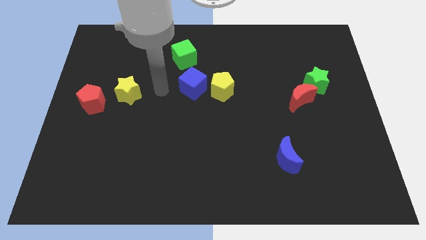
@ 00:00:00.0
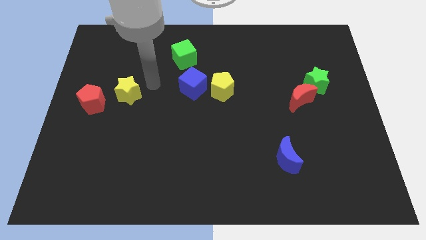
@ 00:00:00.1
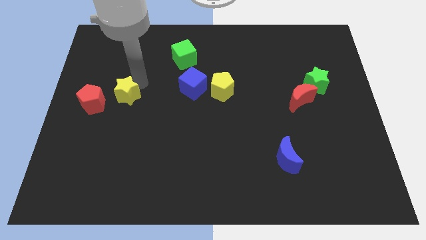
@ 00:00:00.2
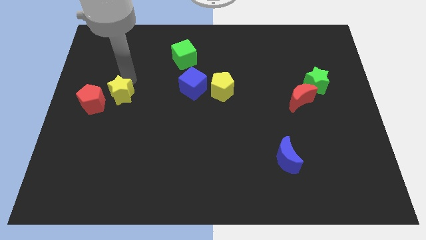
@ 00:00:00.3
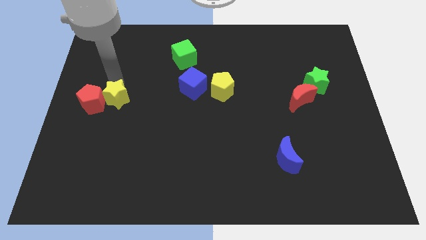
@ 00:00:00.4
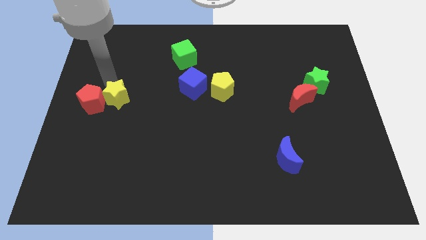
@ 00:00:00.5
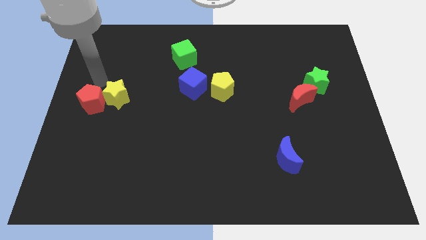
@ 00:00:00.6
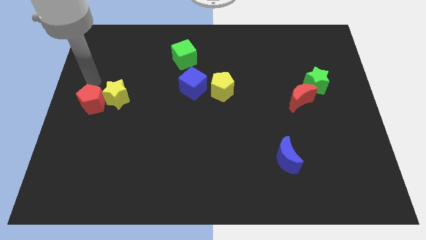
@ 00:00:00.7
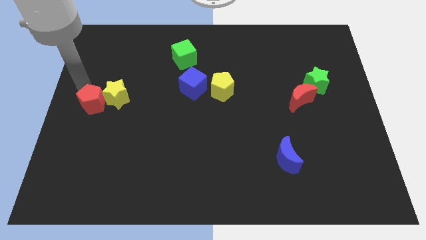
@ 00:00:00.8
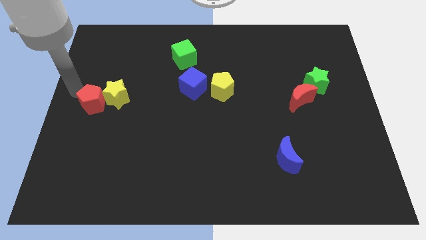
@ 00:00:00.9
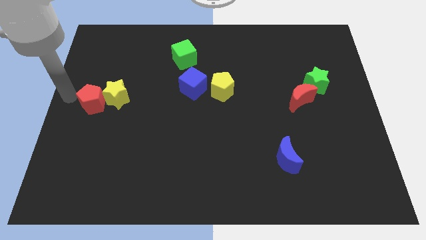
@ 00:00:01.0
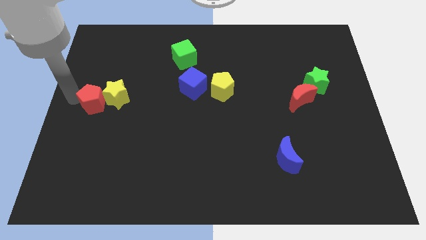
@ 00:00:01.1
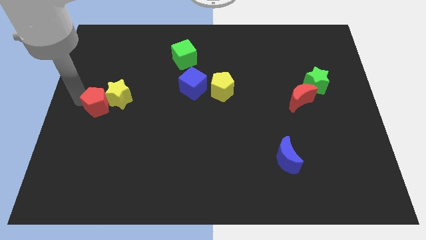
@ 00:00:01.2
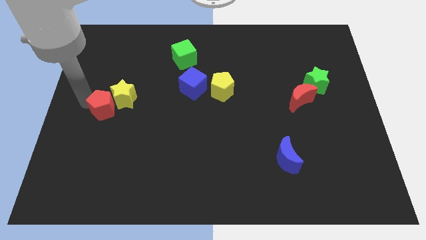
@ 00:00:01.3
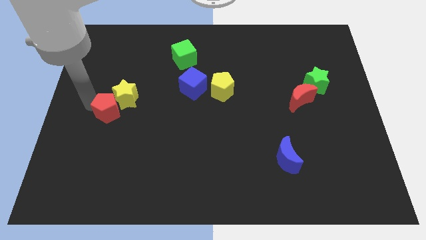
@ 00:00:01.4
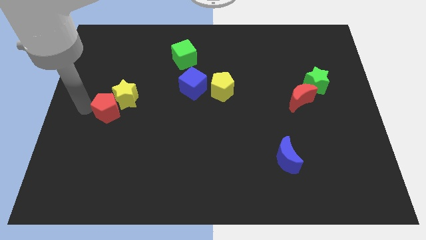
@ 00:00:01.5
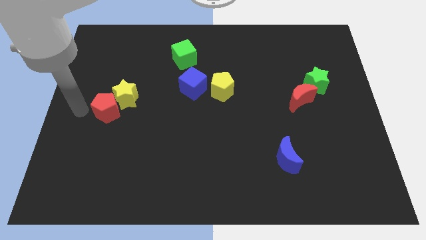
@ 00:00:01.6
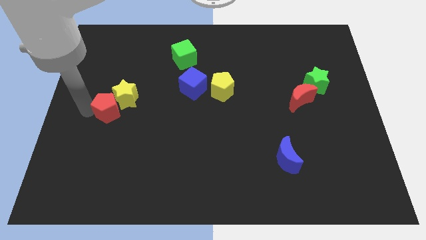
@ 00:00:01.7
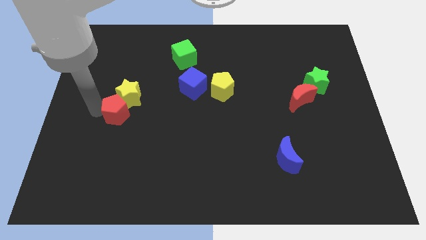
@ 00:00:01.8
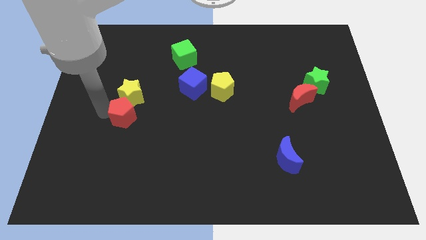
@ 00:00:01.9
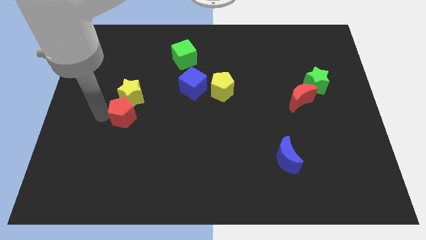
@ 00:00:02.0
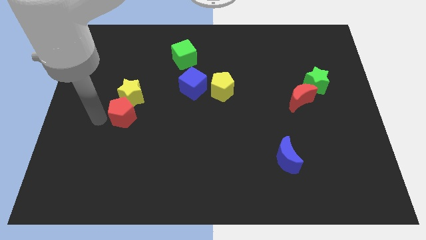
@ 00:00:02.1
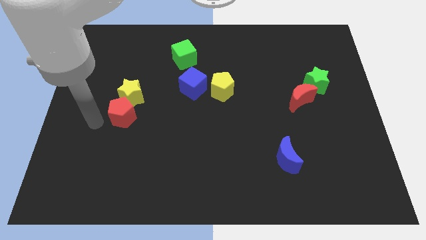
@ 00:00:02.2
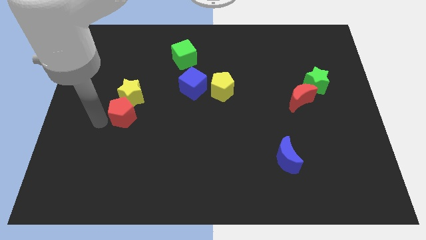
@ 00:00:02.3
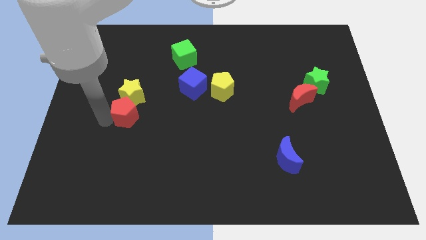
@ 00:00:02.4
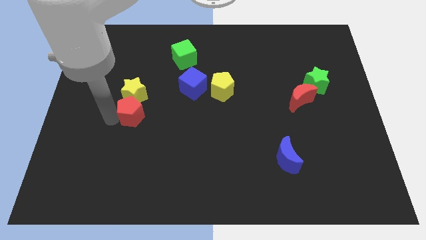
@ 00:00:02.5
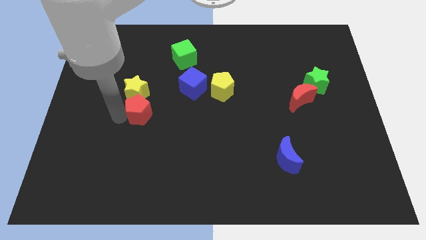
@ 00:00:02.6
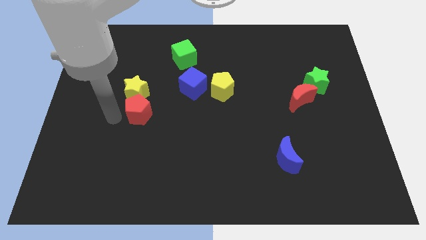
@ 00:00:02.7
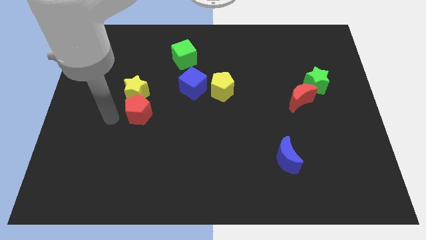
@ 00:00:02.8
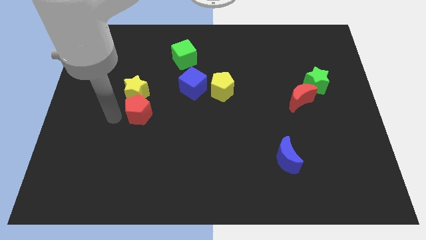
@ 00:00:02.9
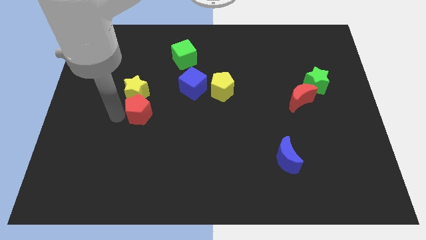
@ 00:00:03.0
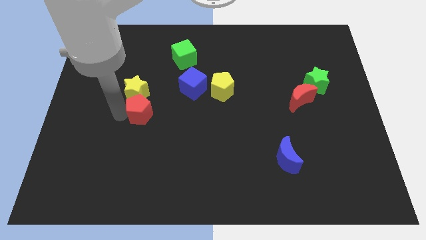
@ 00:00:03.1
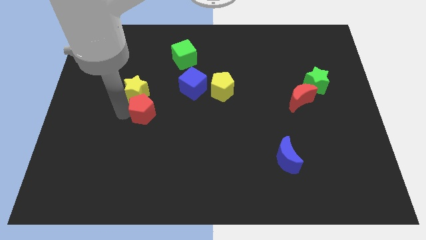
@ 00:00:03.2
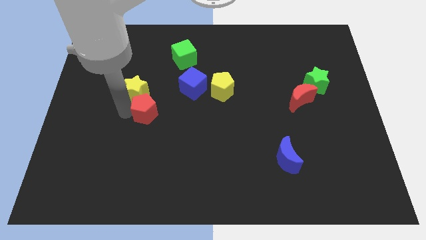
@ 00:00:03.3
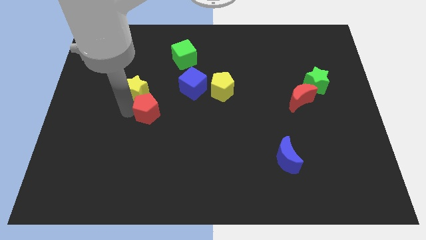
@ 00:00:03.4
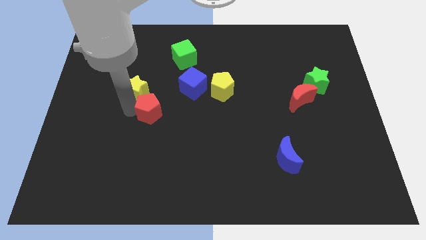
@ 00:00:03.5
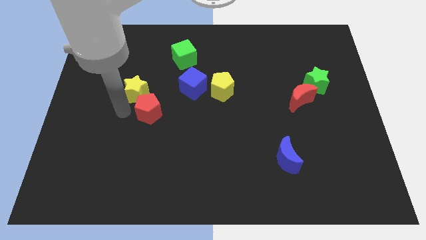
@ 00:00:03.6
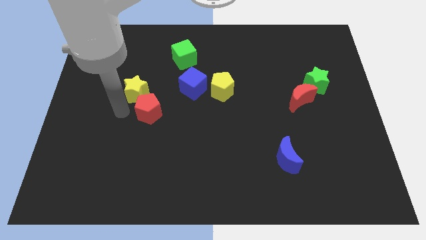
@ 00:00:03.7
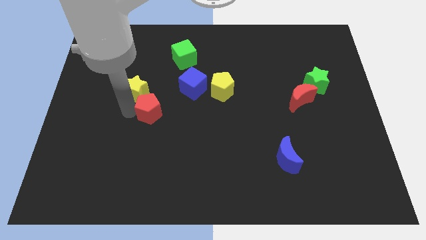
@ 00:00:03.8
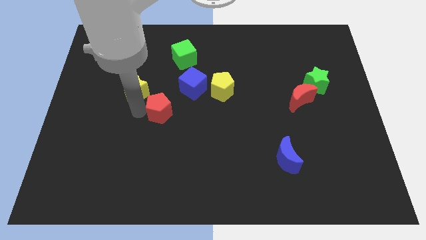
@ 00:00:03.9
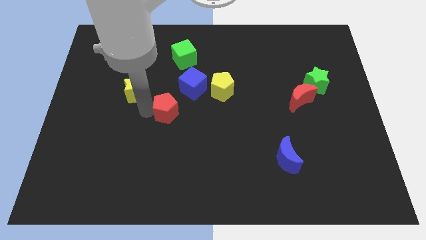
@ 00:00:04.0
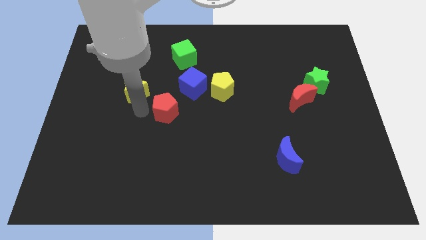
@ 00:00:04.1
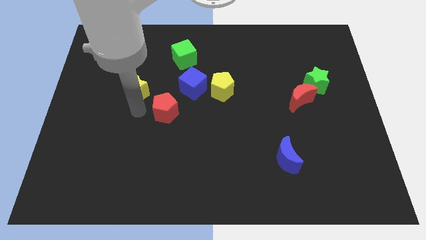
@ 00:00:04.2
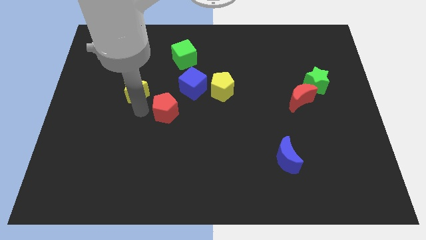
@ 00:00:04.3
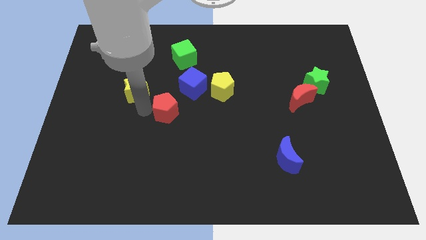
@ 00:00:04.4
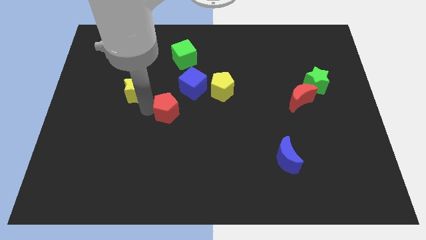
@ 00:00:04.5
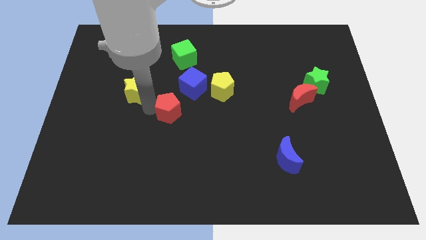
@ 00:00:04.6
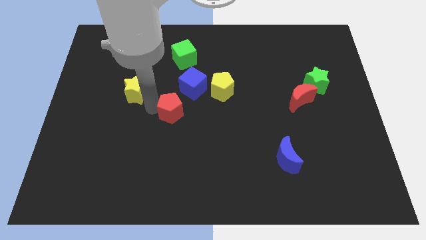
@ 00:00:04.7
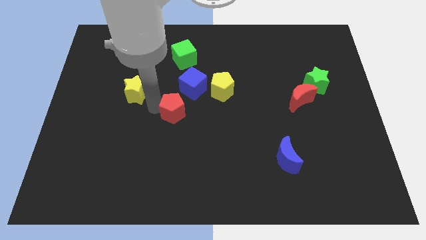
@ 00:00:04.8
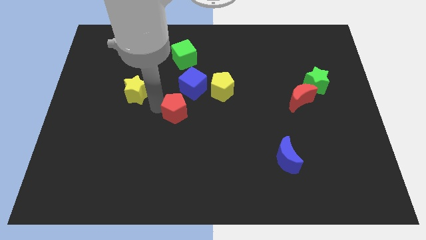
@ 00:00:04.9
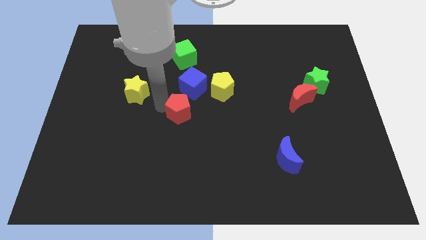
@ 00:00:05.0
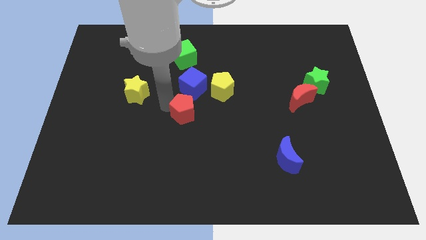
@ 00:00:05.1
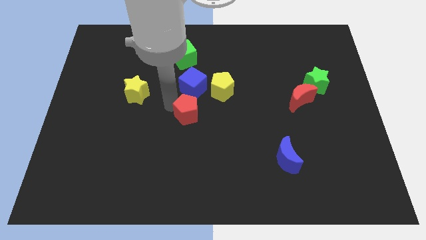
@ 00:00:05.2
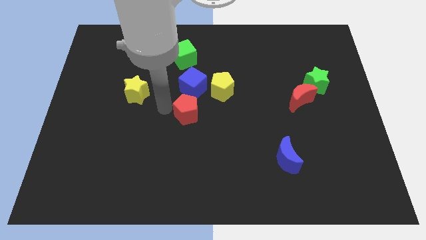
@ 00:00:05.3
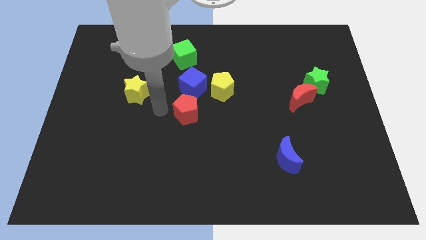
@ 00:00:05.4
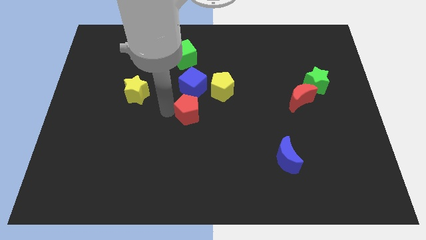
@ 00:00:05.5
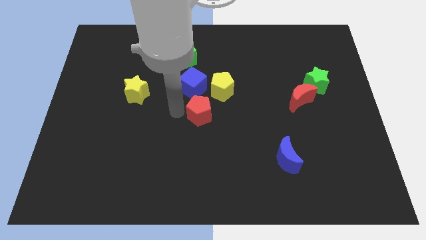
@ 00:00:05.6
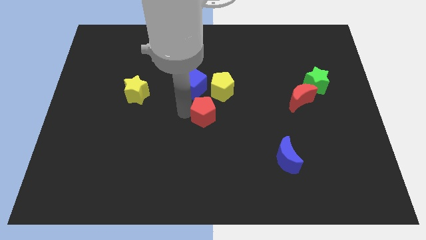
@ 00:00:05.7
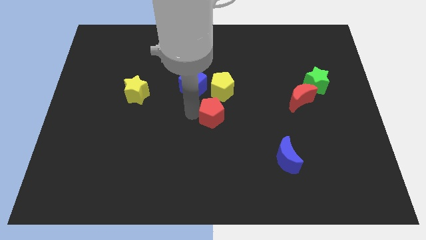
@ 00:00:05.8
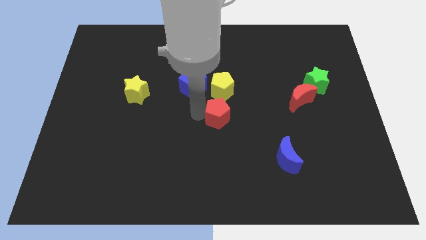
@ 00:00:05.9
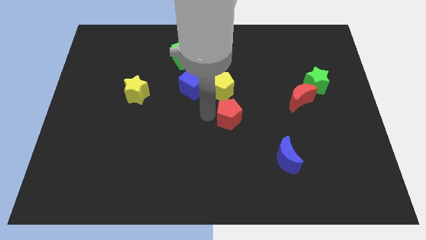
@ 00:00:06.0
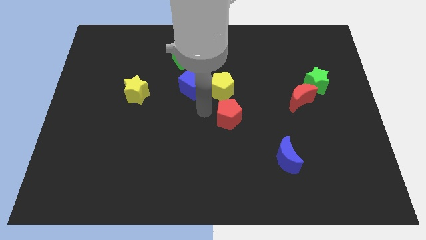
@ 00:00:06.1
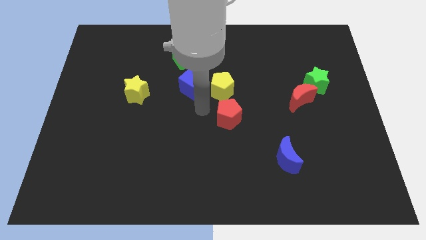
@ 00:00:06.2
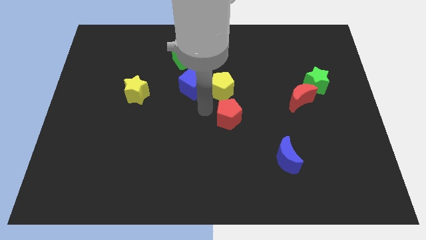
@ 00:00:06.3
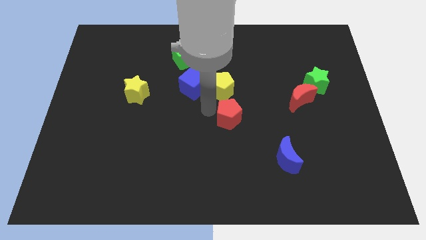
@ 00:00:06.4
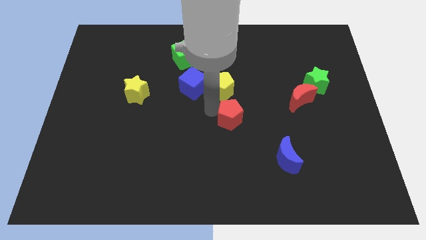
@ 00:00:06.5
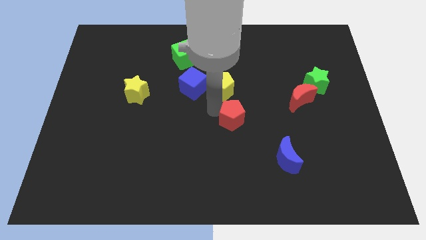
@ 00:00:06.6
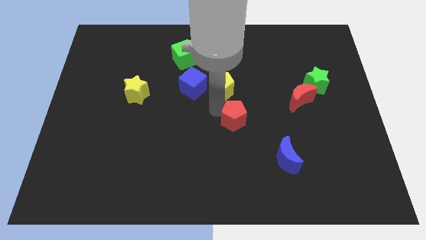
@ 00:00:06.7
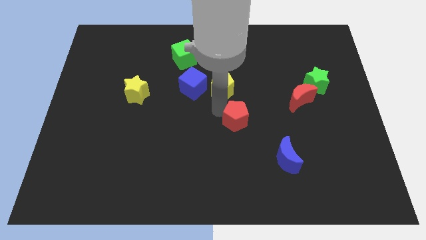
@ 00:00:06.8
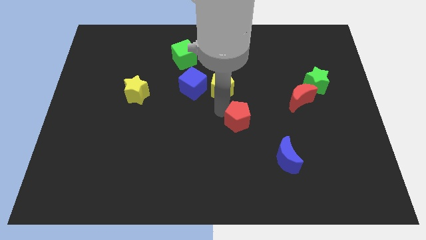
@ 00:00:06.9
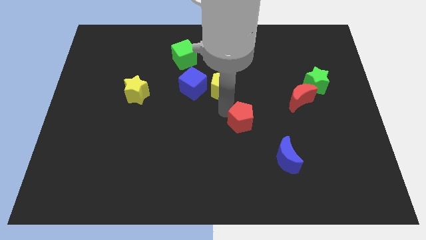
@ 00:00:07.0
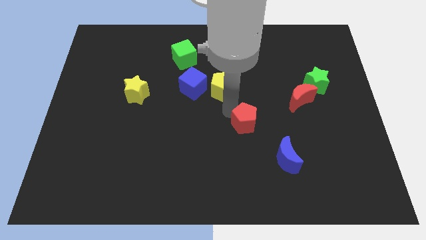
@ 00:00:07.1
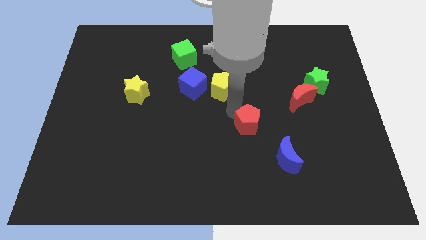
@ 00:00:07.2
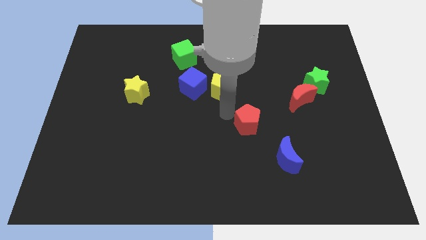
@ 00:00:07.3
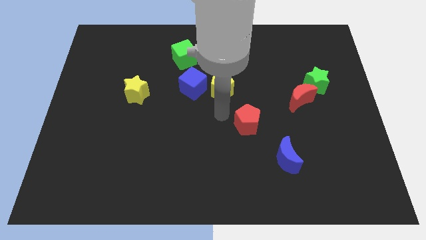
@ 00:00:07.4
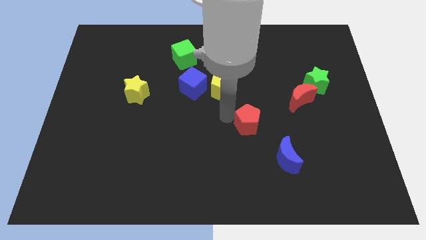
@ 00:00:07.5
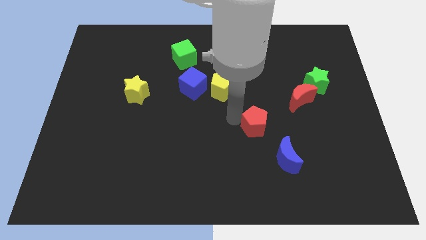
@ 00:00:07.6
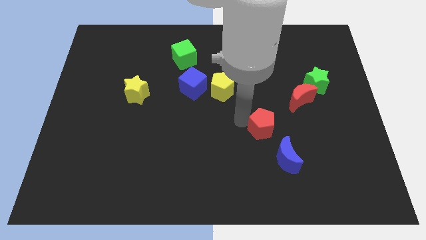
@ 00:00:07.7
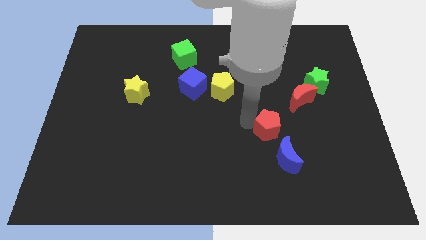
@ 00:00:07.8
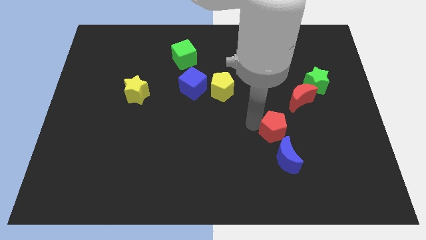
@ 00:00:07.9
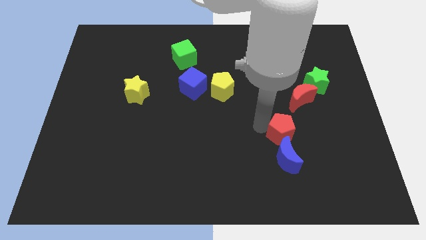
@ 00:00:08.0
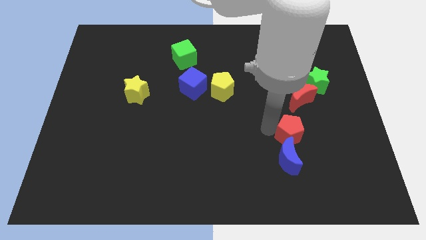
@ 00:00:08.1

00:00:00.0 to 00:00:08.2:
move the red pentagon below the red moon

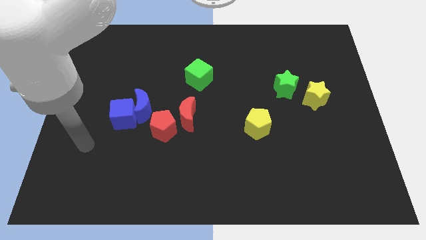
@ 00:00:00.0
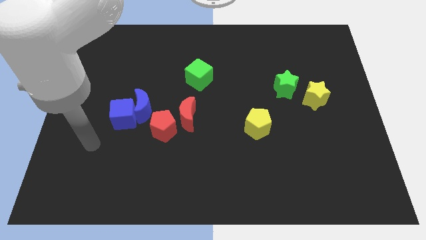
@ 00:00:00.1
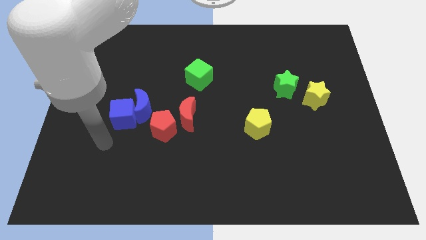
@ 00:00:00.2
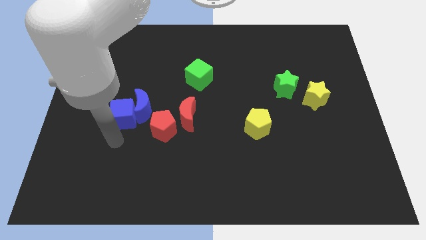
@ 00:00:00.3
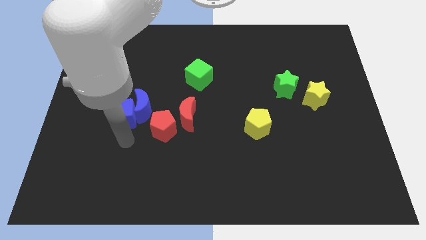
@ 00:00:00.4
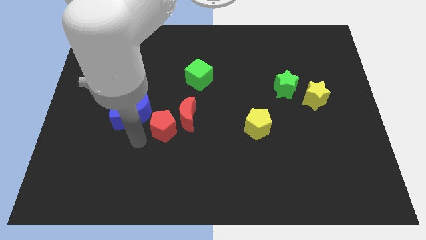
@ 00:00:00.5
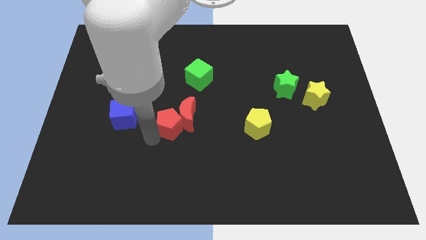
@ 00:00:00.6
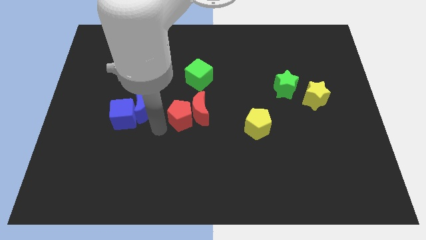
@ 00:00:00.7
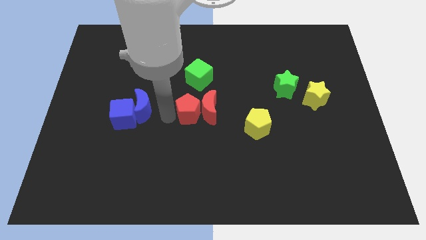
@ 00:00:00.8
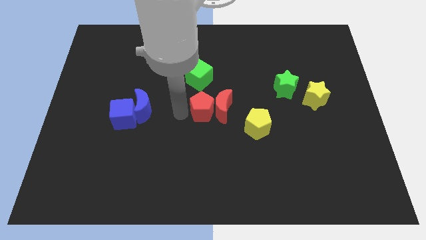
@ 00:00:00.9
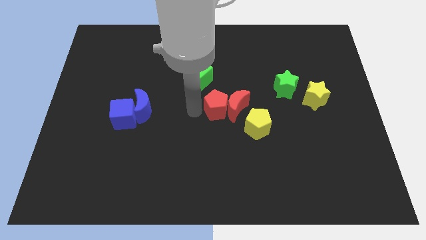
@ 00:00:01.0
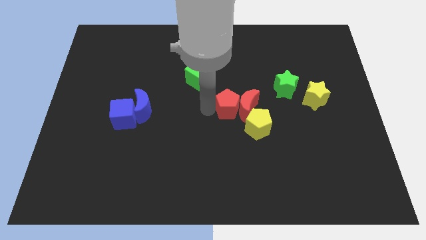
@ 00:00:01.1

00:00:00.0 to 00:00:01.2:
put the red moon diagonally down and to the left of the green star
